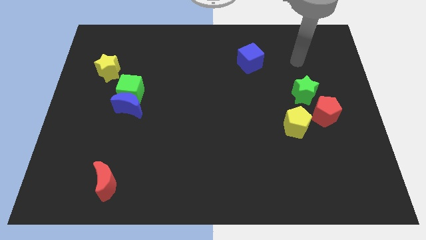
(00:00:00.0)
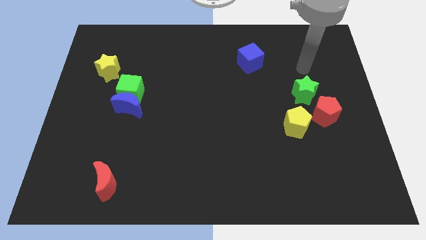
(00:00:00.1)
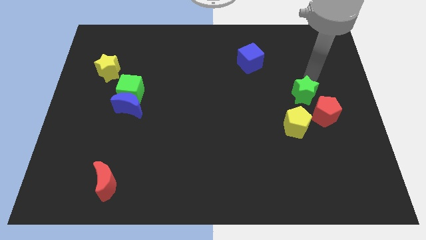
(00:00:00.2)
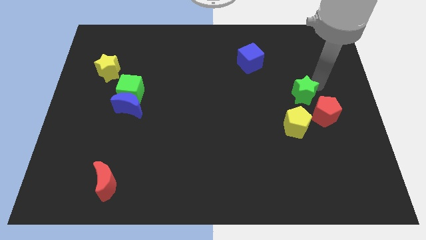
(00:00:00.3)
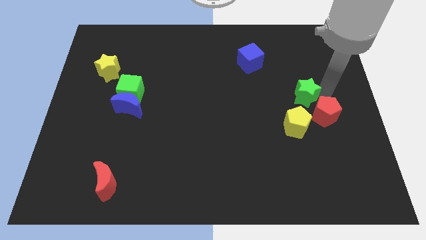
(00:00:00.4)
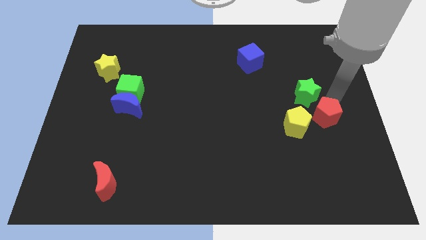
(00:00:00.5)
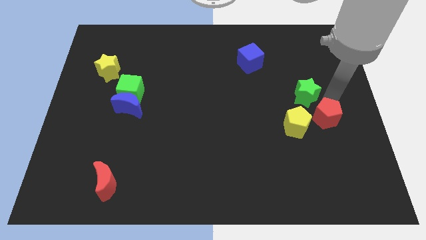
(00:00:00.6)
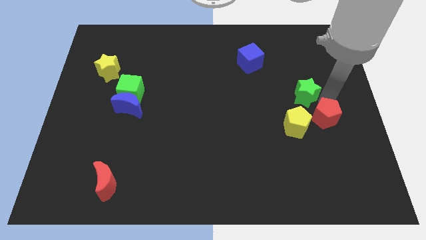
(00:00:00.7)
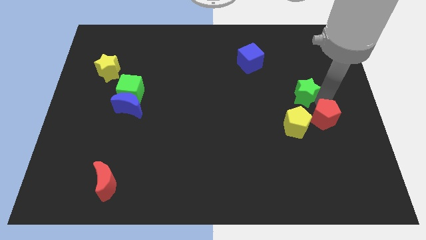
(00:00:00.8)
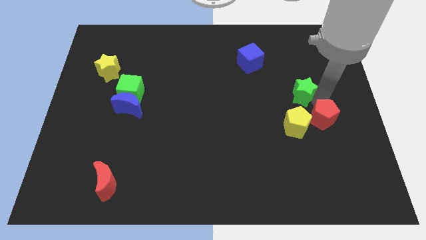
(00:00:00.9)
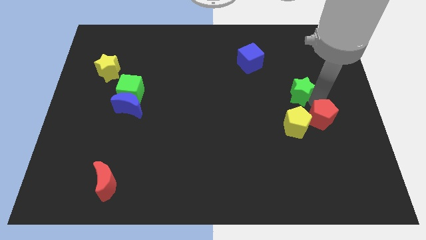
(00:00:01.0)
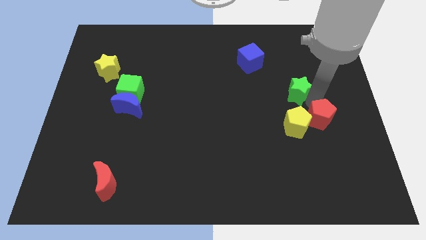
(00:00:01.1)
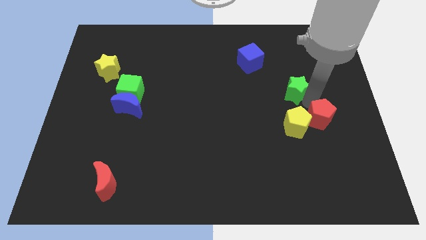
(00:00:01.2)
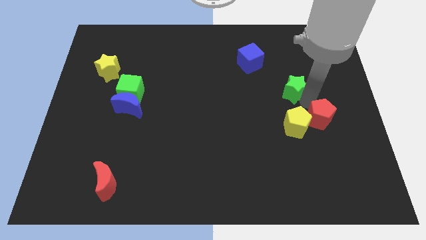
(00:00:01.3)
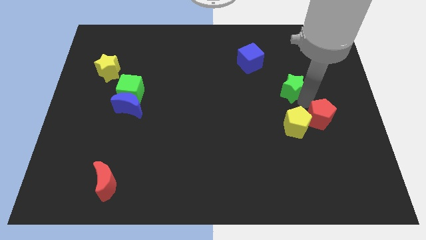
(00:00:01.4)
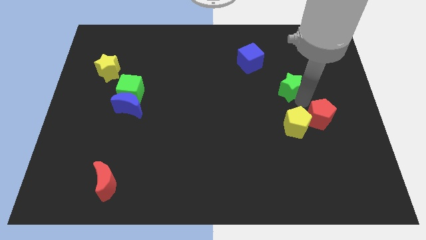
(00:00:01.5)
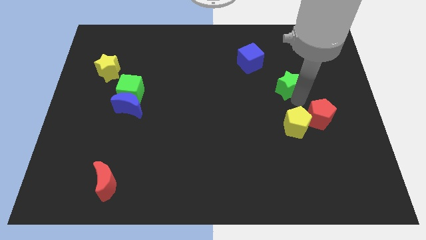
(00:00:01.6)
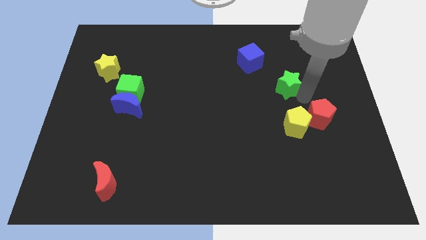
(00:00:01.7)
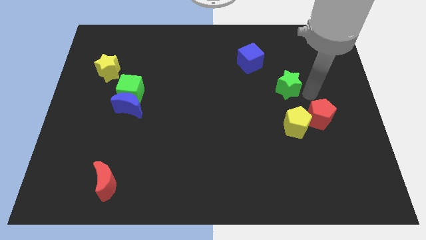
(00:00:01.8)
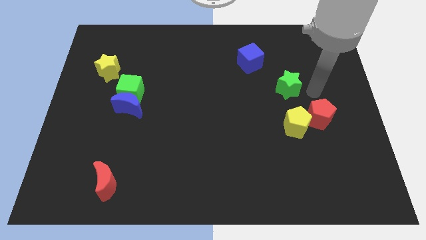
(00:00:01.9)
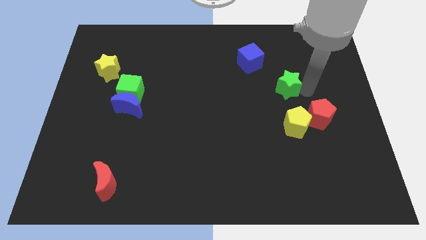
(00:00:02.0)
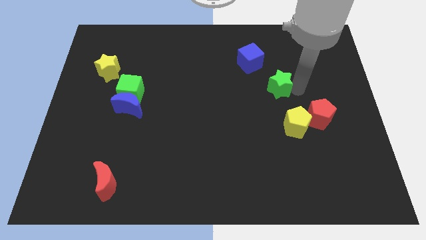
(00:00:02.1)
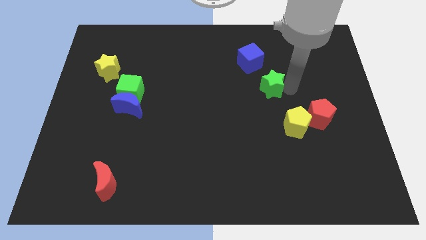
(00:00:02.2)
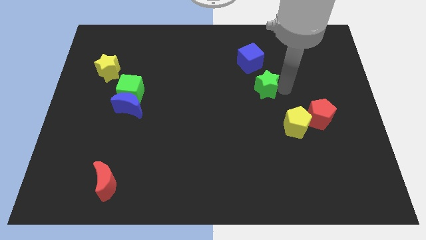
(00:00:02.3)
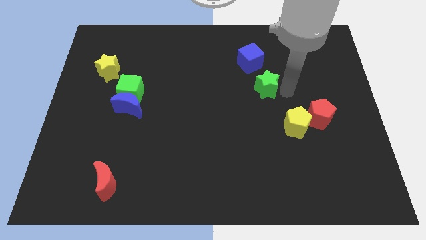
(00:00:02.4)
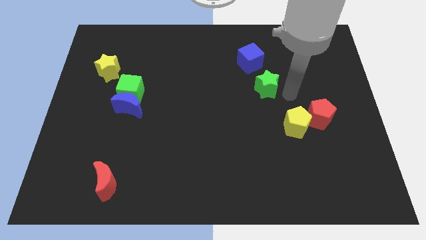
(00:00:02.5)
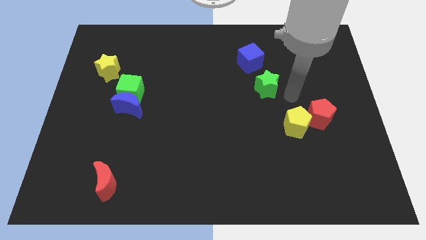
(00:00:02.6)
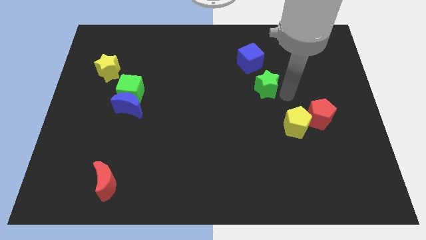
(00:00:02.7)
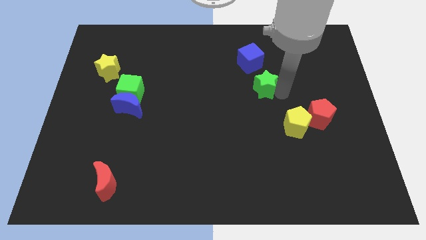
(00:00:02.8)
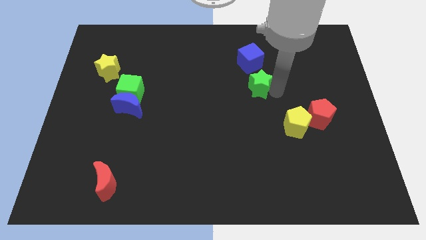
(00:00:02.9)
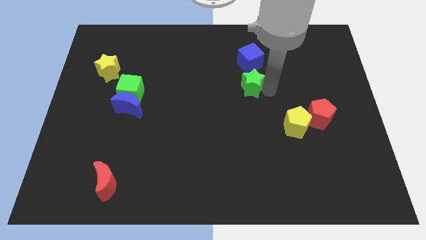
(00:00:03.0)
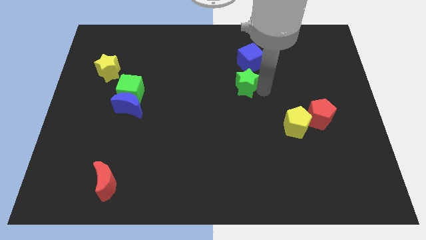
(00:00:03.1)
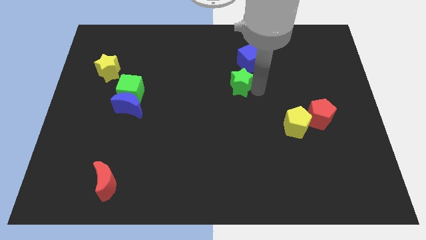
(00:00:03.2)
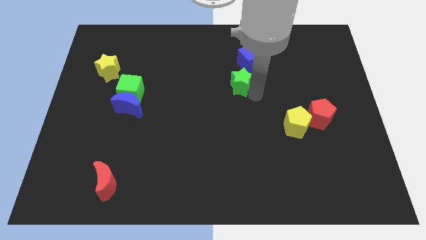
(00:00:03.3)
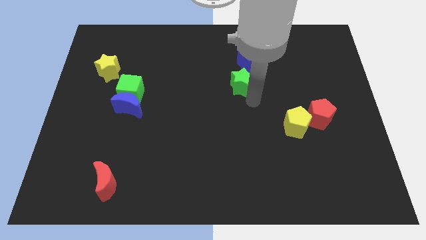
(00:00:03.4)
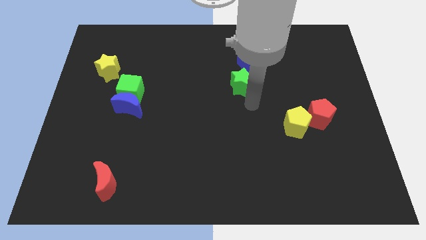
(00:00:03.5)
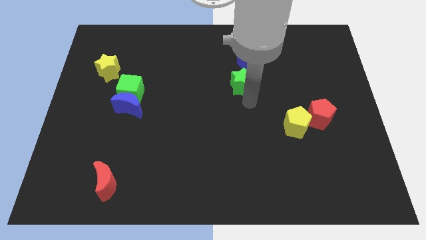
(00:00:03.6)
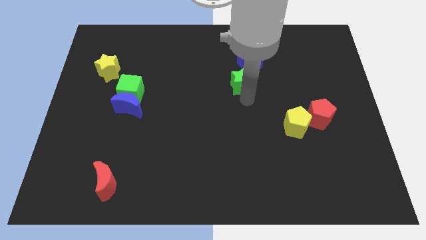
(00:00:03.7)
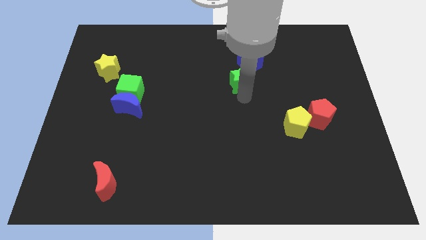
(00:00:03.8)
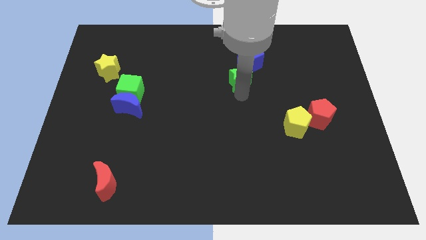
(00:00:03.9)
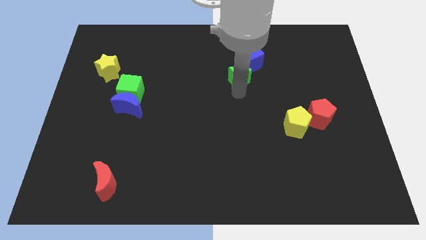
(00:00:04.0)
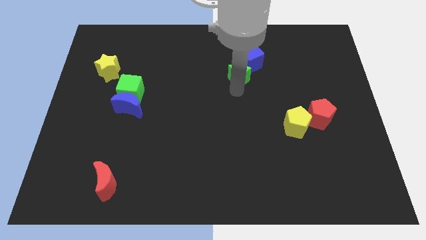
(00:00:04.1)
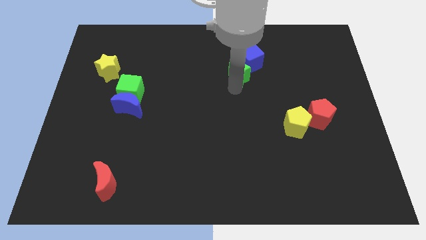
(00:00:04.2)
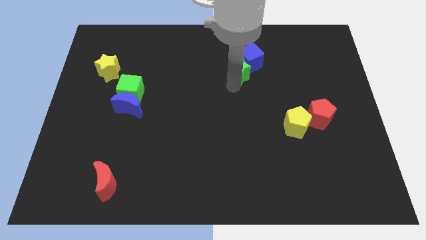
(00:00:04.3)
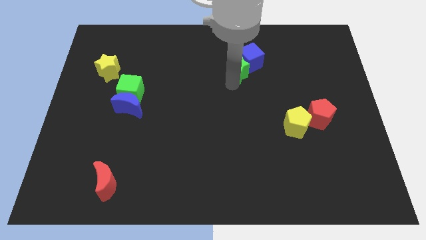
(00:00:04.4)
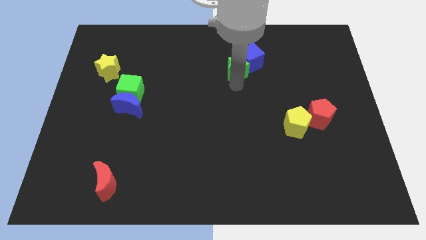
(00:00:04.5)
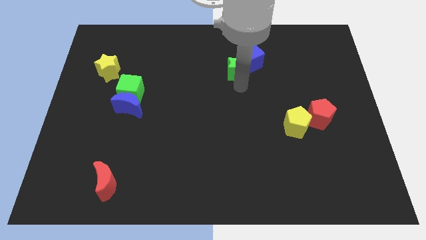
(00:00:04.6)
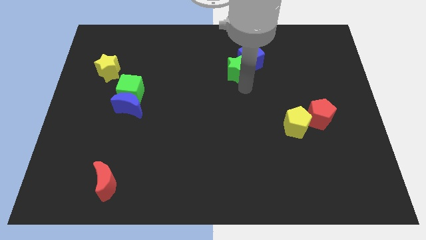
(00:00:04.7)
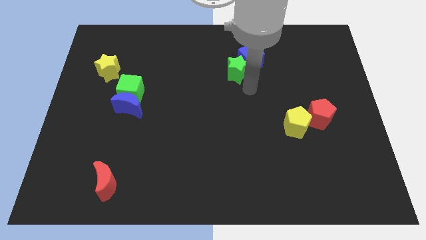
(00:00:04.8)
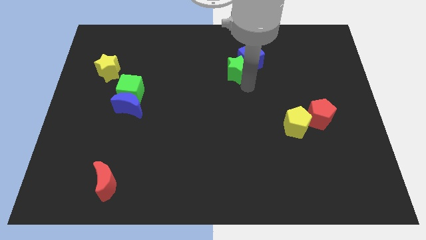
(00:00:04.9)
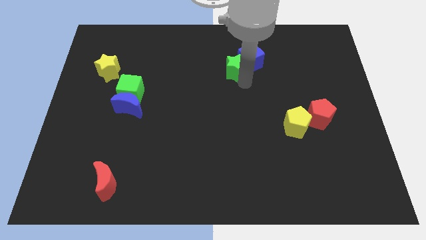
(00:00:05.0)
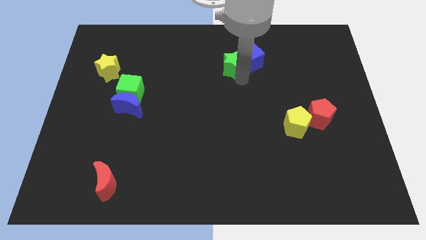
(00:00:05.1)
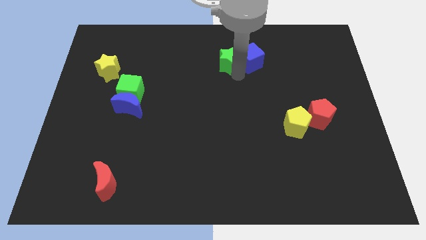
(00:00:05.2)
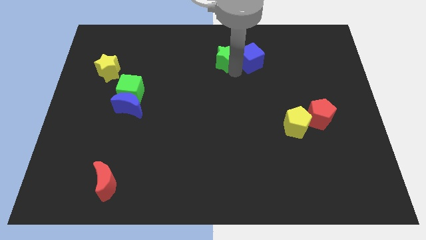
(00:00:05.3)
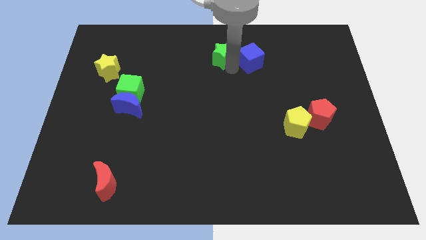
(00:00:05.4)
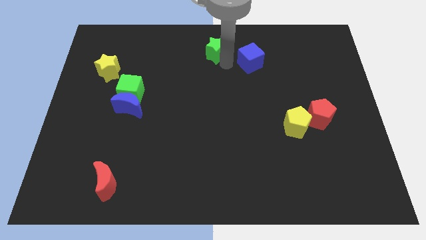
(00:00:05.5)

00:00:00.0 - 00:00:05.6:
slide the green star to the towards your base

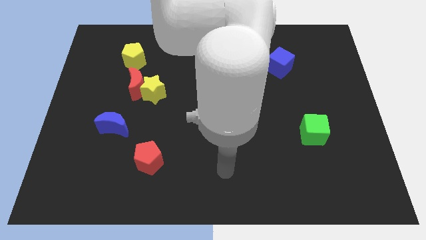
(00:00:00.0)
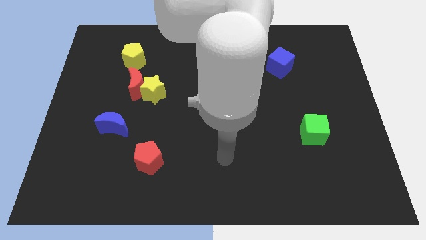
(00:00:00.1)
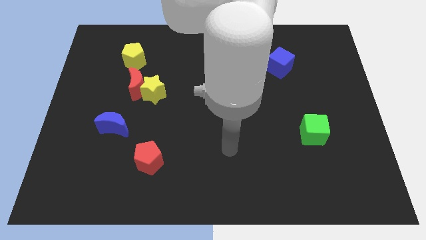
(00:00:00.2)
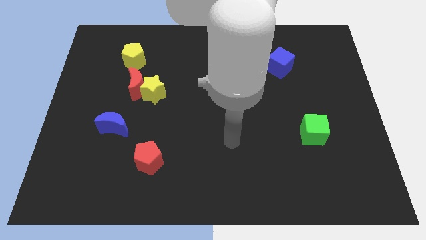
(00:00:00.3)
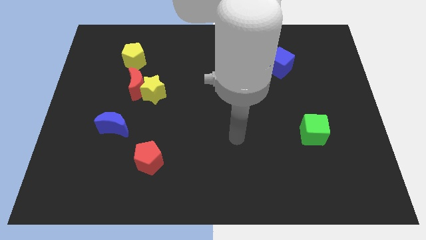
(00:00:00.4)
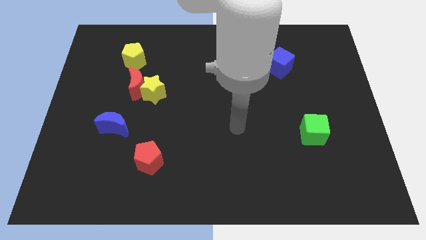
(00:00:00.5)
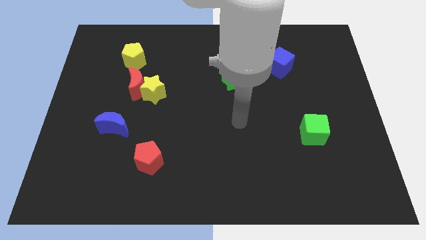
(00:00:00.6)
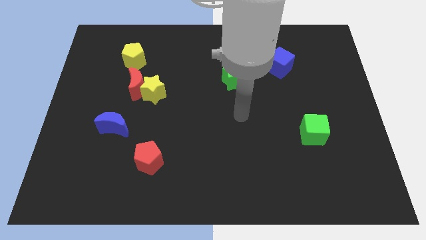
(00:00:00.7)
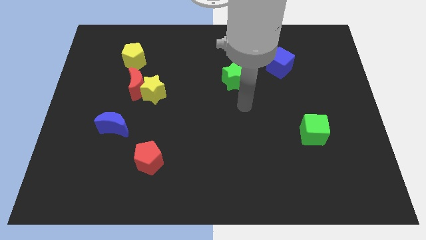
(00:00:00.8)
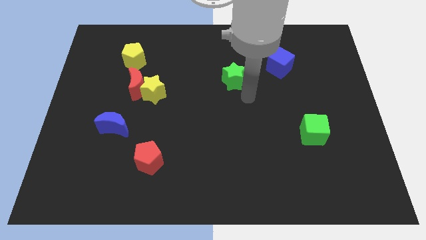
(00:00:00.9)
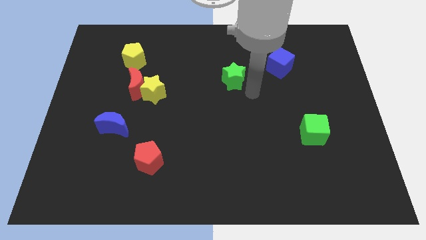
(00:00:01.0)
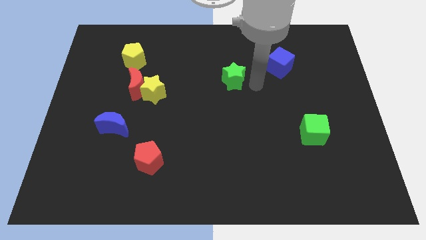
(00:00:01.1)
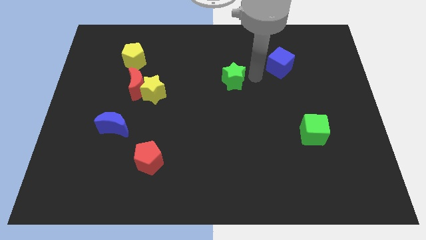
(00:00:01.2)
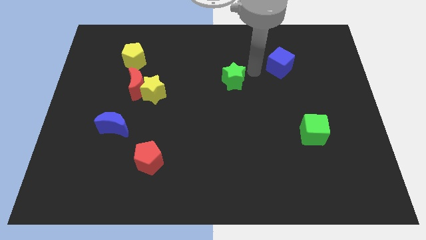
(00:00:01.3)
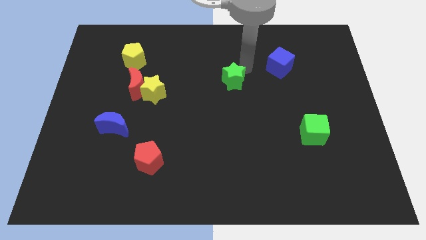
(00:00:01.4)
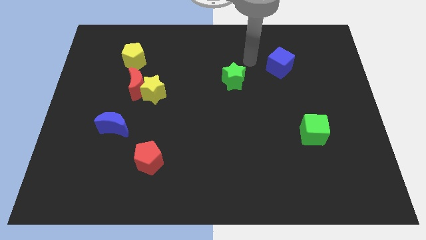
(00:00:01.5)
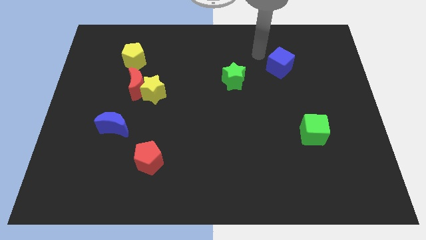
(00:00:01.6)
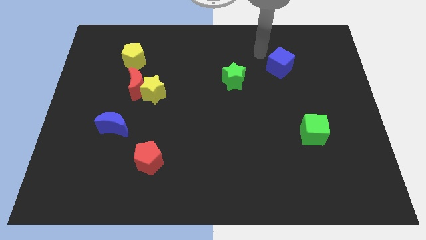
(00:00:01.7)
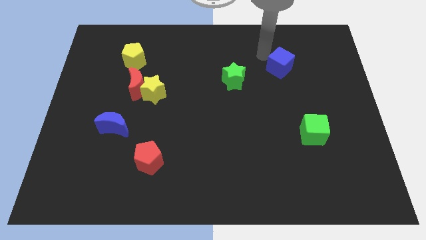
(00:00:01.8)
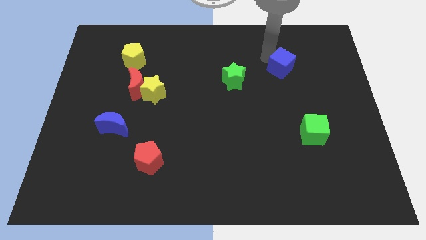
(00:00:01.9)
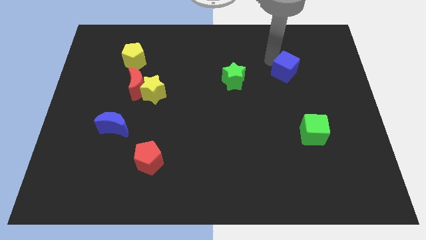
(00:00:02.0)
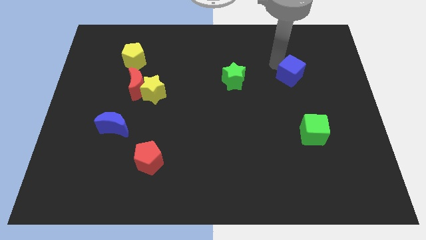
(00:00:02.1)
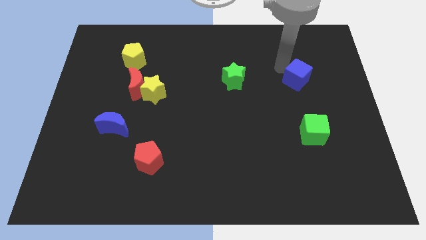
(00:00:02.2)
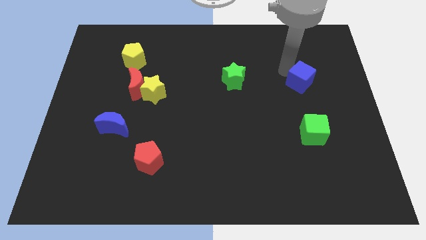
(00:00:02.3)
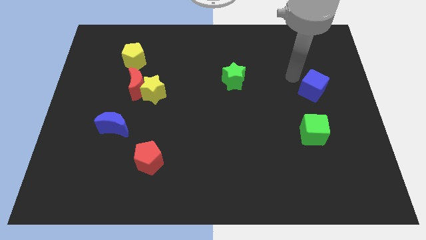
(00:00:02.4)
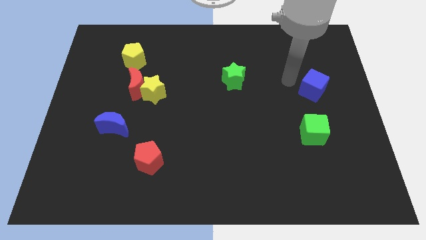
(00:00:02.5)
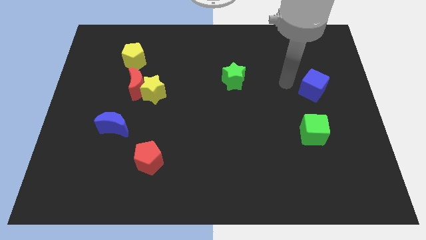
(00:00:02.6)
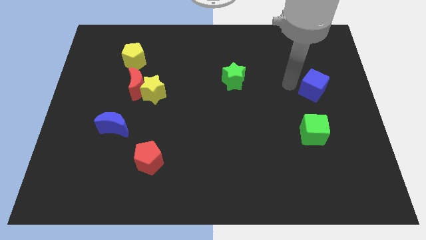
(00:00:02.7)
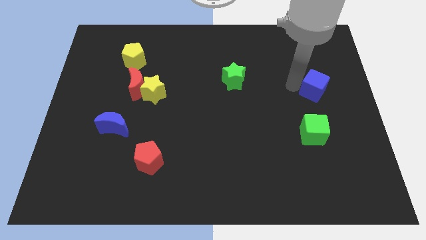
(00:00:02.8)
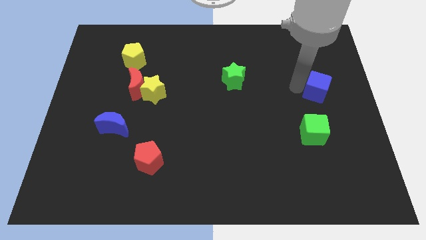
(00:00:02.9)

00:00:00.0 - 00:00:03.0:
move the blue cube to the center right
